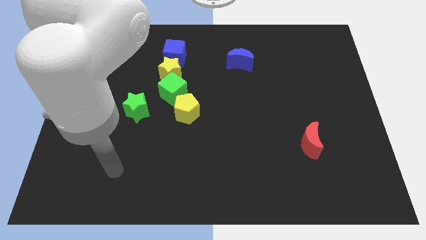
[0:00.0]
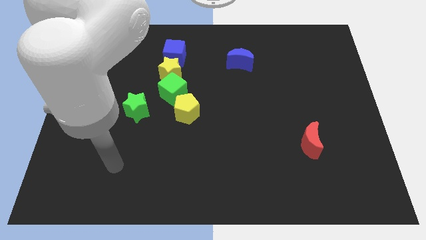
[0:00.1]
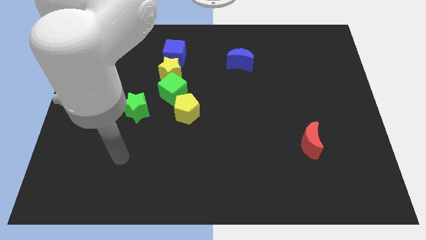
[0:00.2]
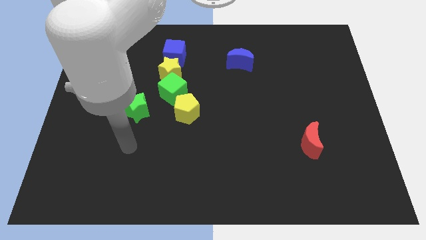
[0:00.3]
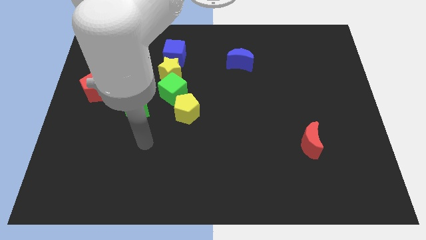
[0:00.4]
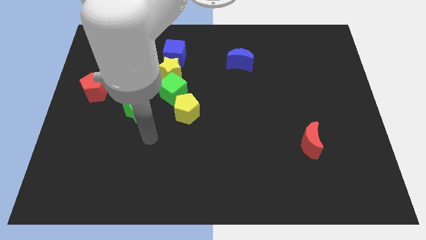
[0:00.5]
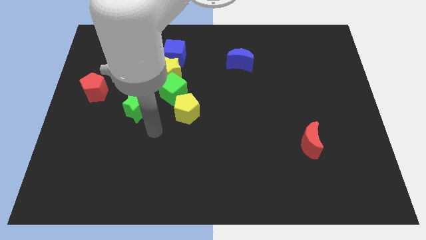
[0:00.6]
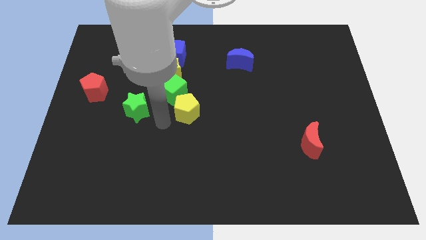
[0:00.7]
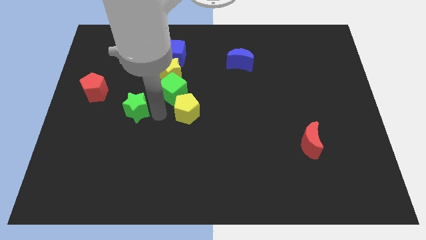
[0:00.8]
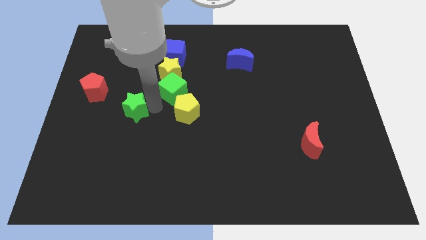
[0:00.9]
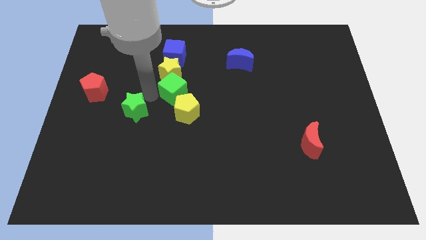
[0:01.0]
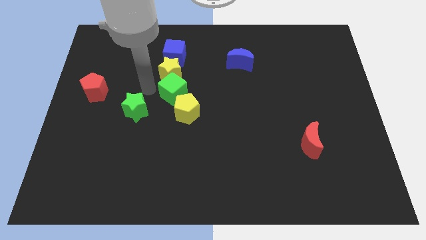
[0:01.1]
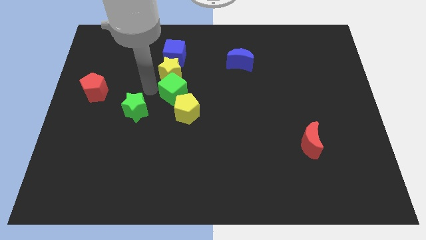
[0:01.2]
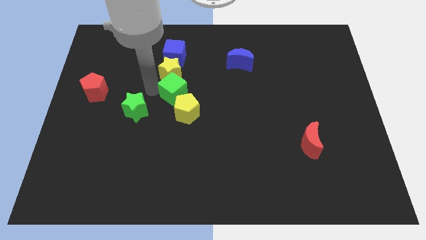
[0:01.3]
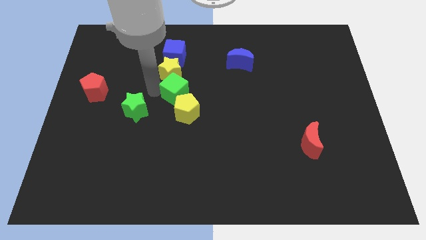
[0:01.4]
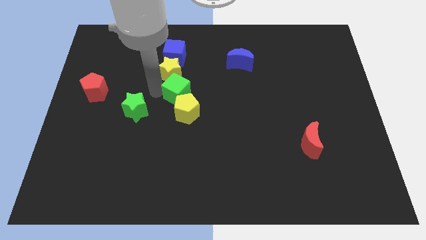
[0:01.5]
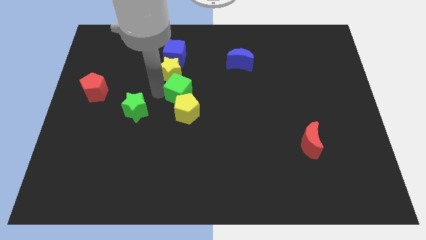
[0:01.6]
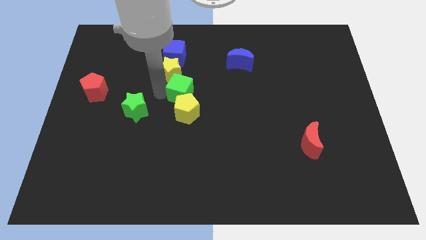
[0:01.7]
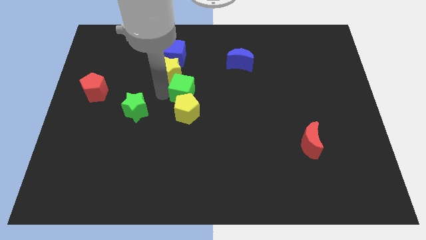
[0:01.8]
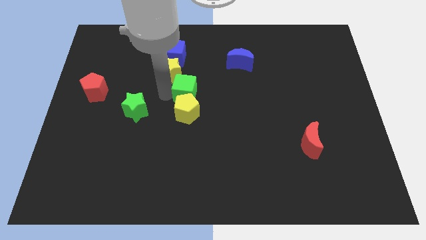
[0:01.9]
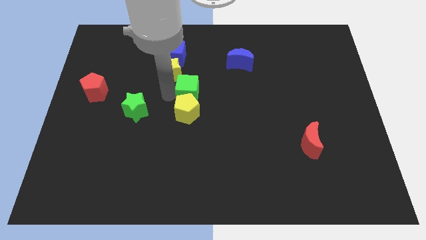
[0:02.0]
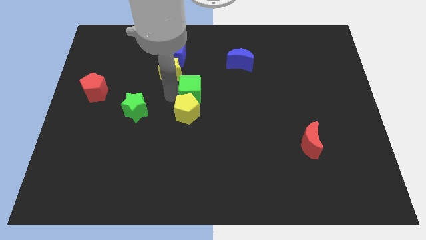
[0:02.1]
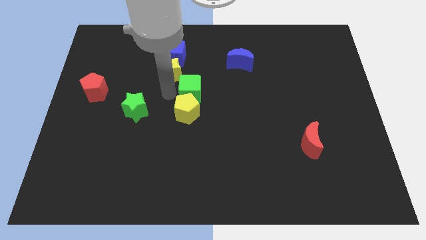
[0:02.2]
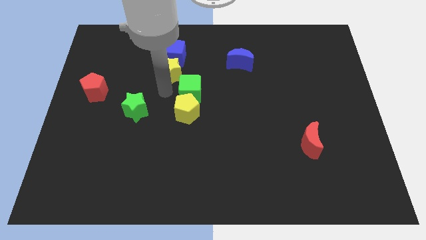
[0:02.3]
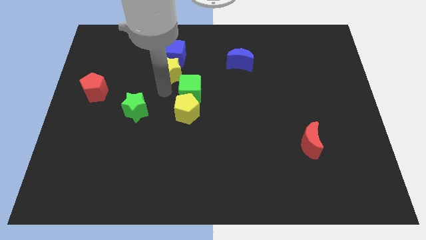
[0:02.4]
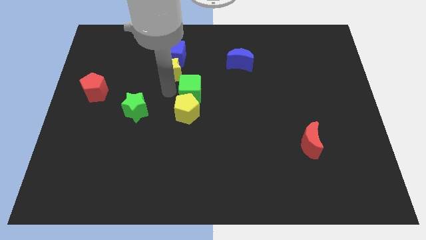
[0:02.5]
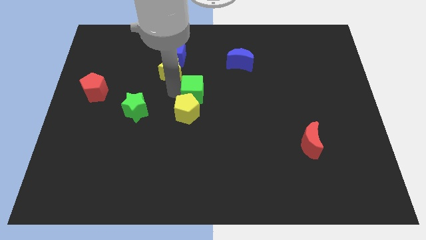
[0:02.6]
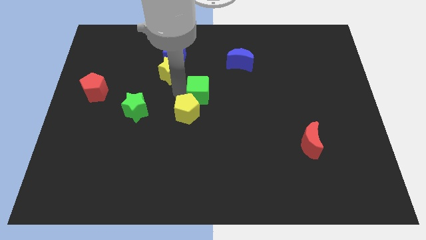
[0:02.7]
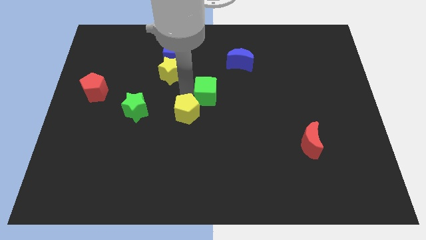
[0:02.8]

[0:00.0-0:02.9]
push the green cube slightly right

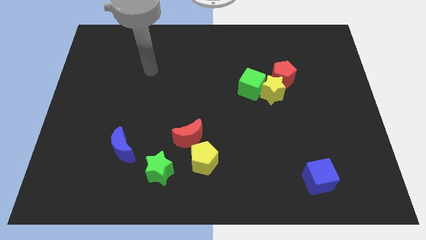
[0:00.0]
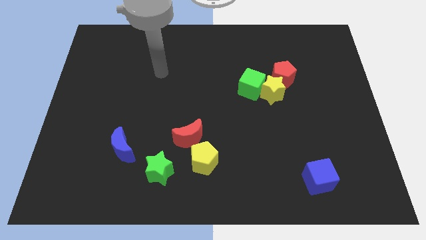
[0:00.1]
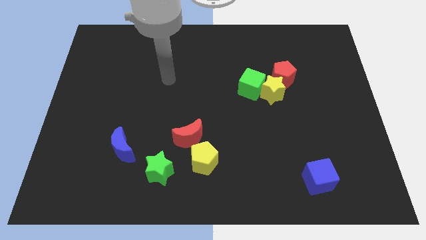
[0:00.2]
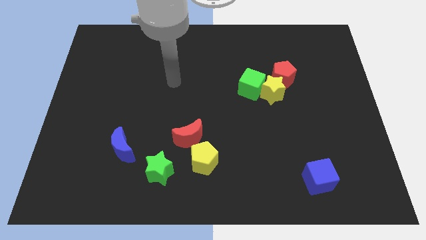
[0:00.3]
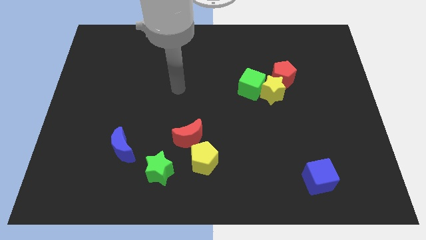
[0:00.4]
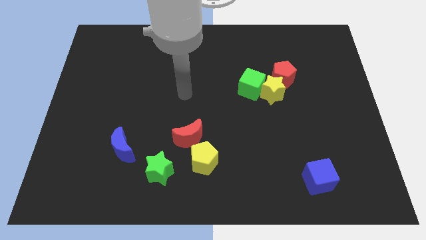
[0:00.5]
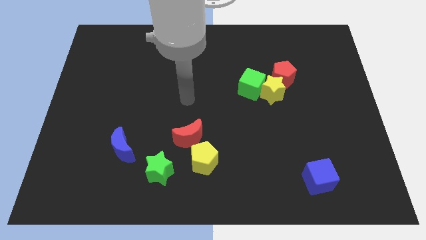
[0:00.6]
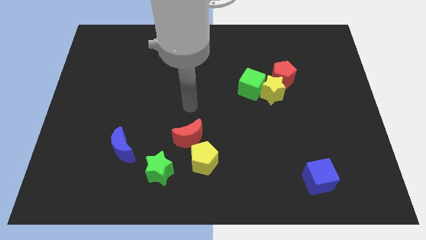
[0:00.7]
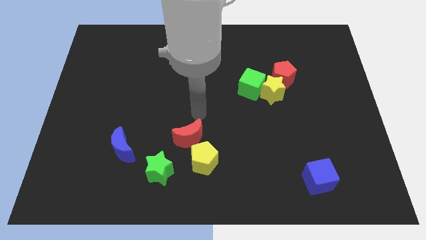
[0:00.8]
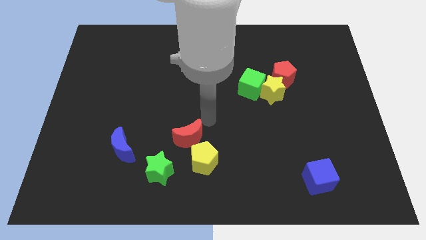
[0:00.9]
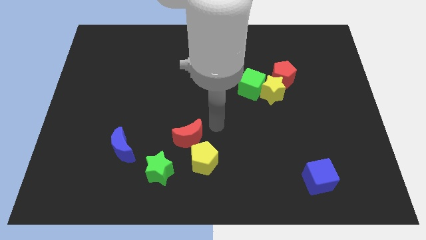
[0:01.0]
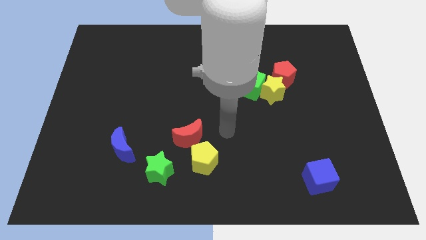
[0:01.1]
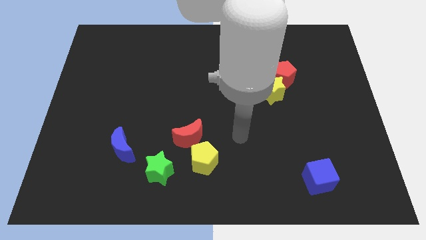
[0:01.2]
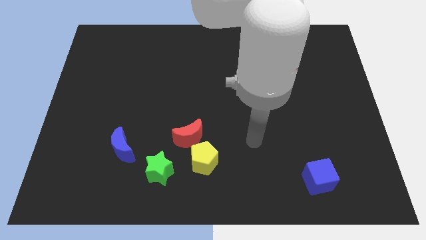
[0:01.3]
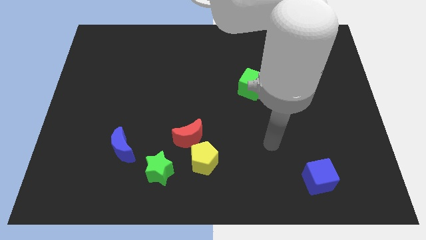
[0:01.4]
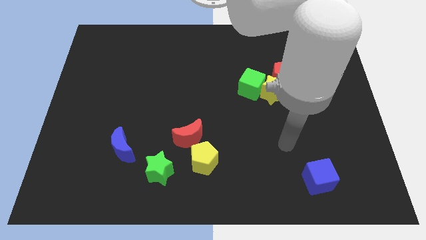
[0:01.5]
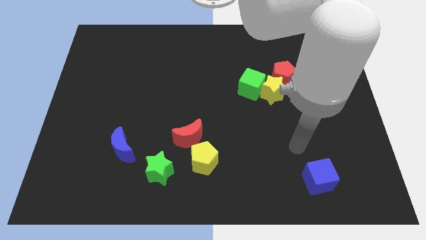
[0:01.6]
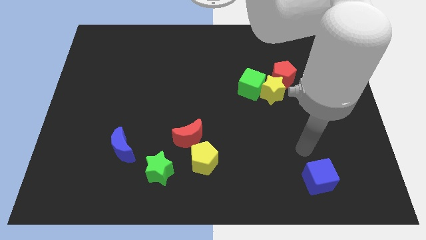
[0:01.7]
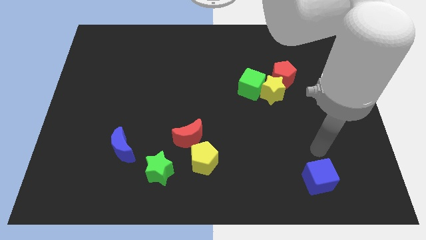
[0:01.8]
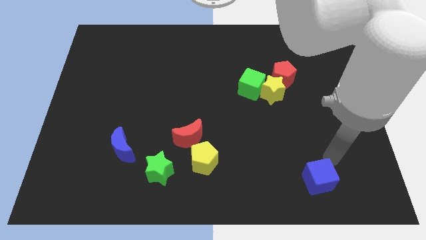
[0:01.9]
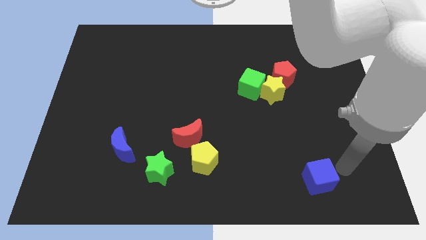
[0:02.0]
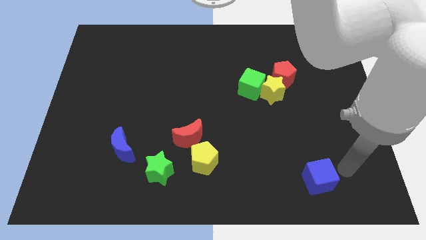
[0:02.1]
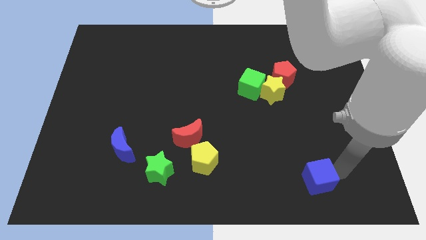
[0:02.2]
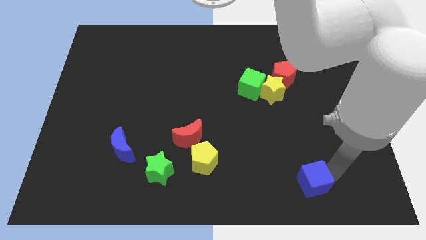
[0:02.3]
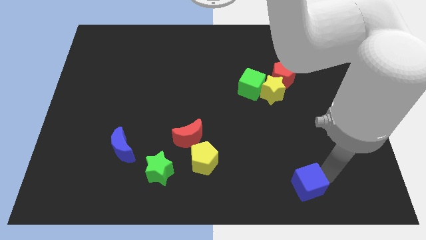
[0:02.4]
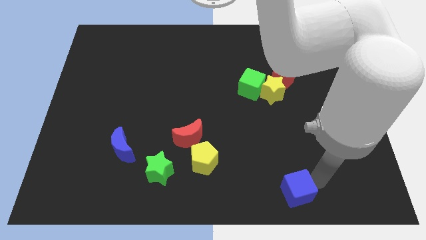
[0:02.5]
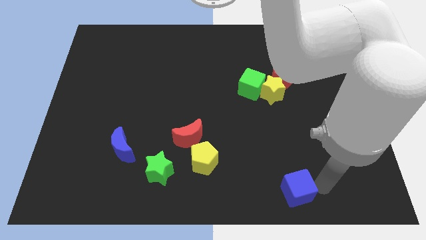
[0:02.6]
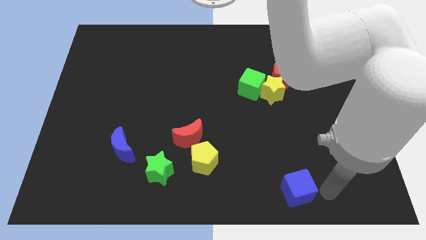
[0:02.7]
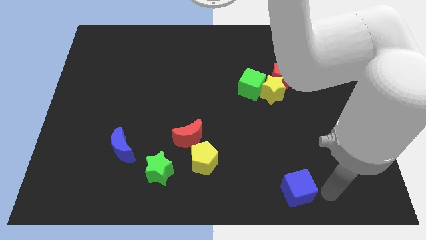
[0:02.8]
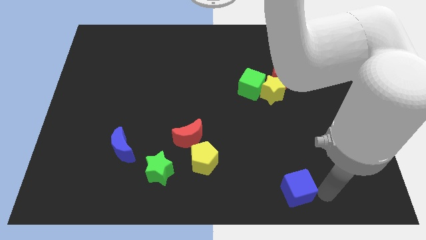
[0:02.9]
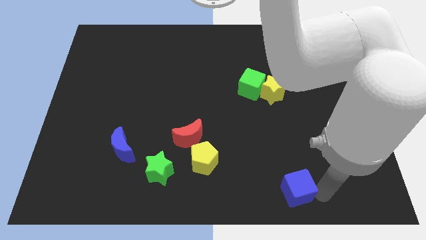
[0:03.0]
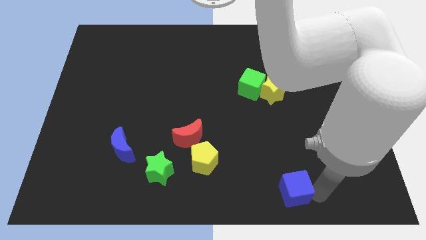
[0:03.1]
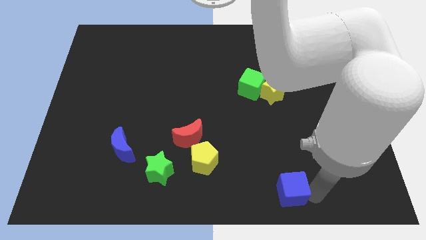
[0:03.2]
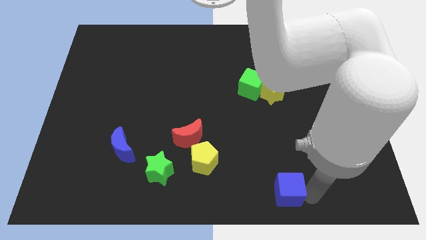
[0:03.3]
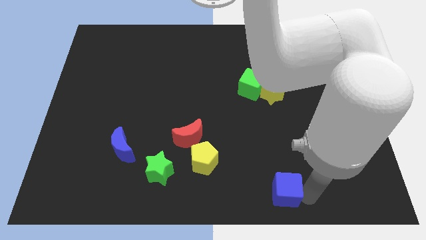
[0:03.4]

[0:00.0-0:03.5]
slightly move the blue cube to the left

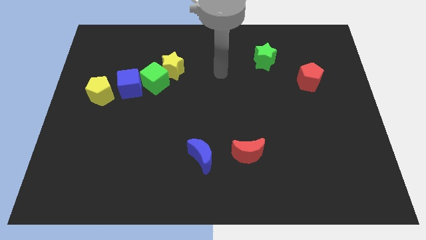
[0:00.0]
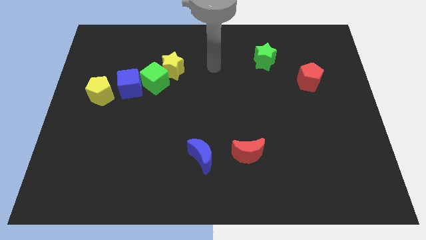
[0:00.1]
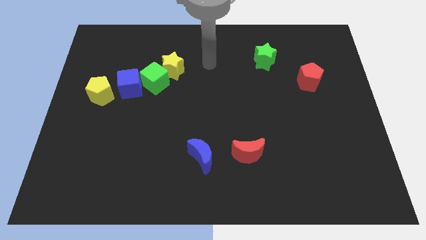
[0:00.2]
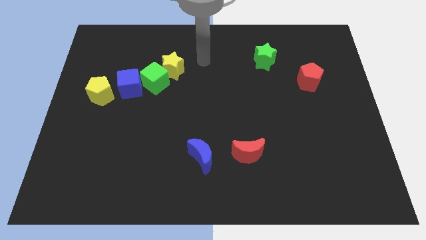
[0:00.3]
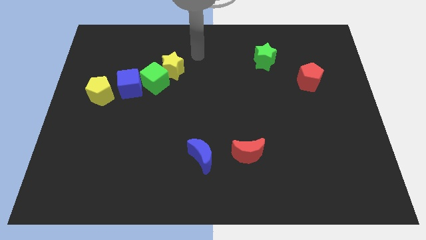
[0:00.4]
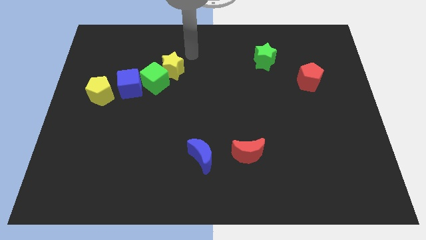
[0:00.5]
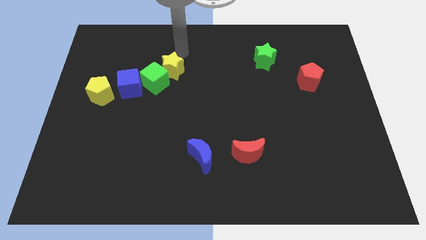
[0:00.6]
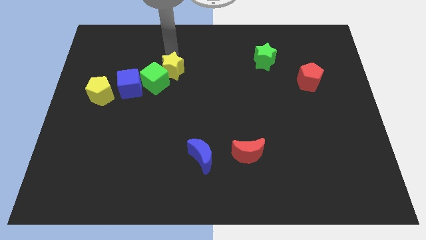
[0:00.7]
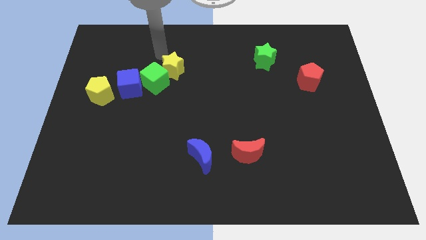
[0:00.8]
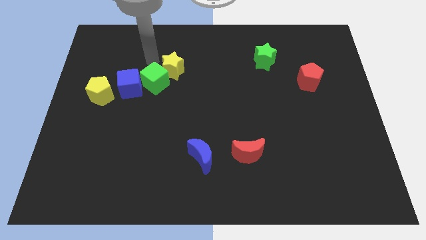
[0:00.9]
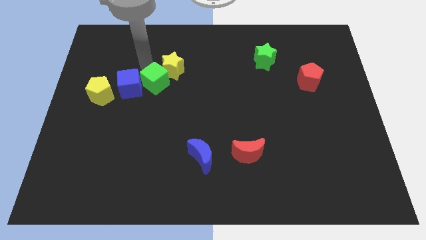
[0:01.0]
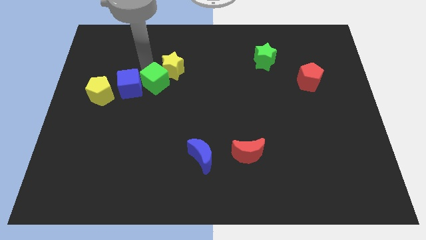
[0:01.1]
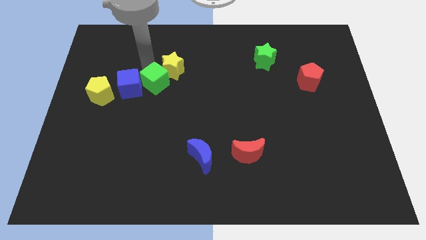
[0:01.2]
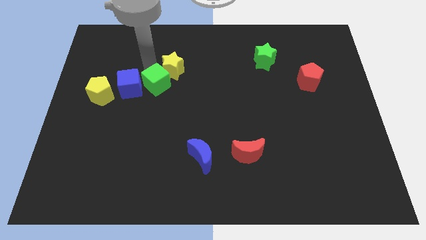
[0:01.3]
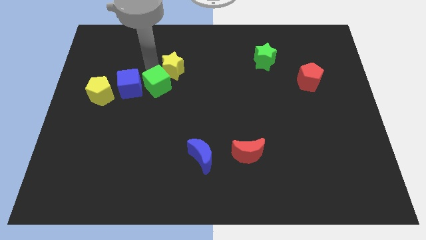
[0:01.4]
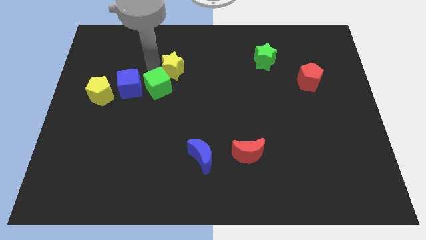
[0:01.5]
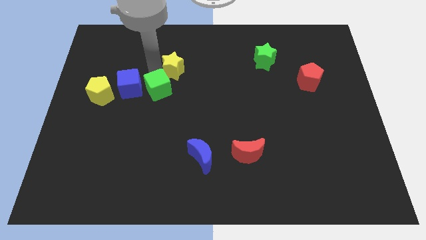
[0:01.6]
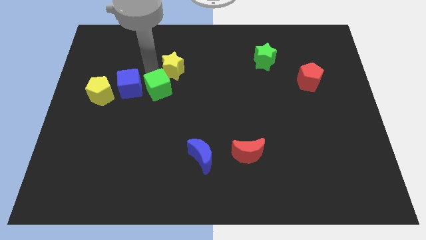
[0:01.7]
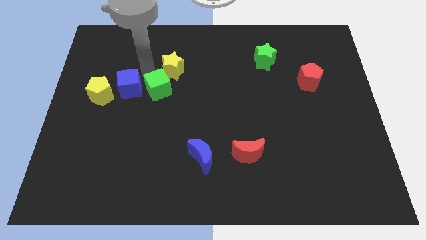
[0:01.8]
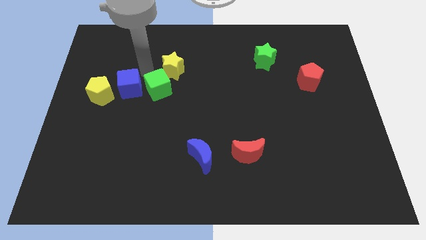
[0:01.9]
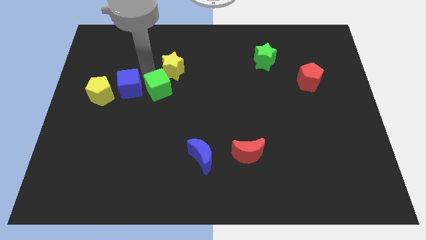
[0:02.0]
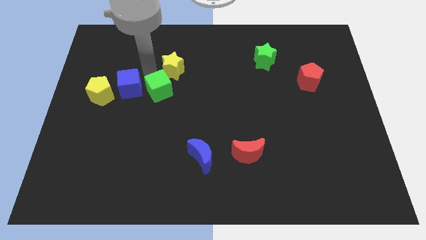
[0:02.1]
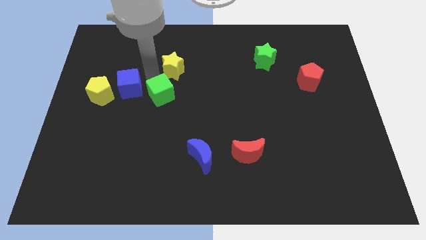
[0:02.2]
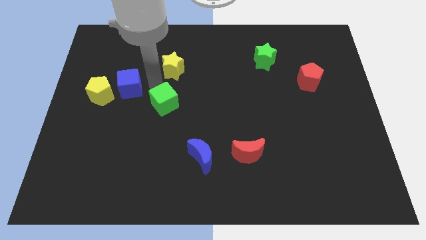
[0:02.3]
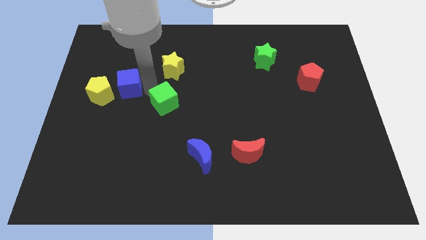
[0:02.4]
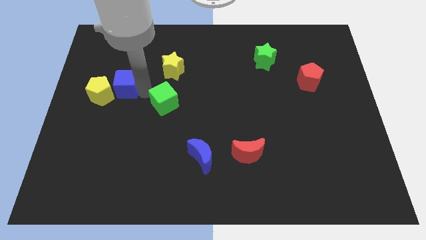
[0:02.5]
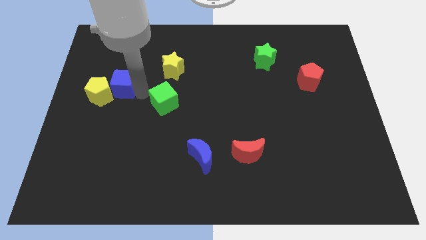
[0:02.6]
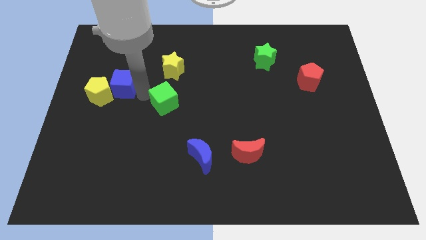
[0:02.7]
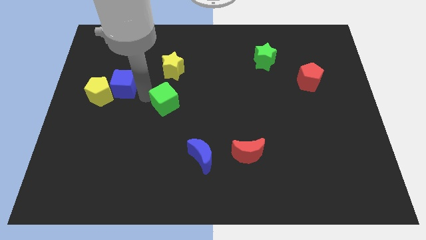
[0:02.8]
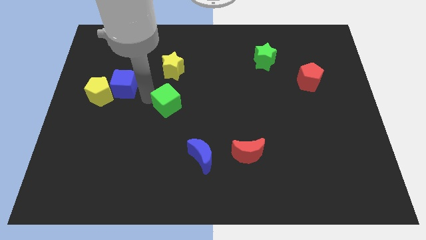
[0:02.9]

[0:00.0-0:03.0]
push the green cube somewhat down and right diagonally
